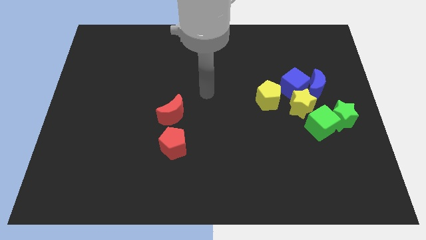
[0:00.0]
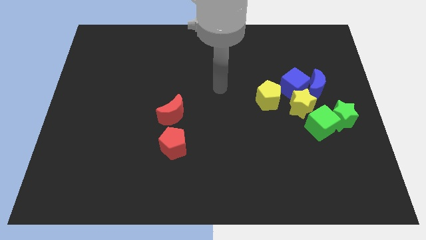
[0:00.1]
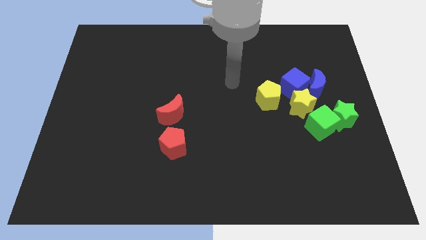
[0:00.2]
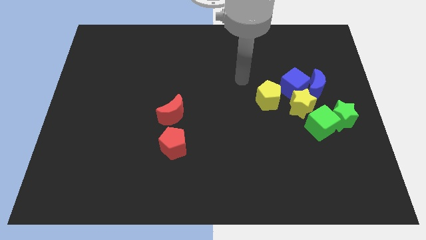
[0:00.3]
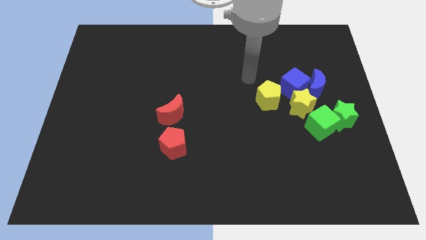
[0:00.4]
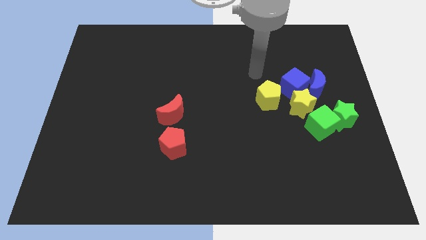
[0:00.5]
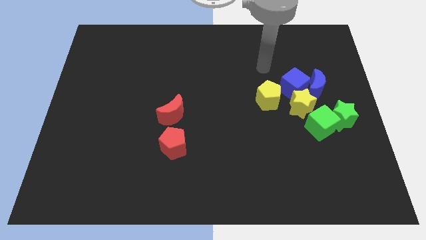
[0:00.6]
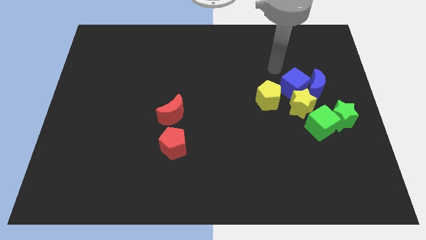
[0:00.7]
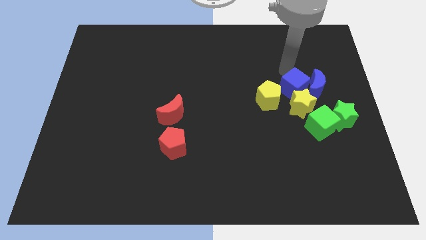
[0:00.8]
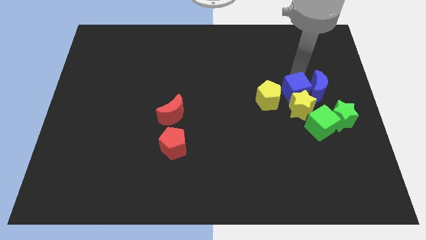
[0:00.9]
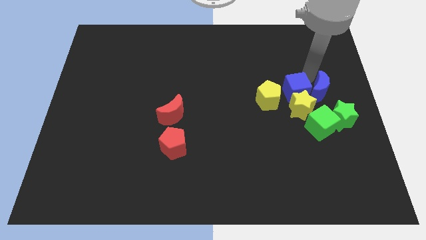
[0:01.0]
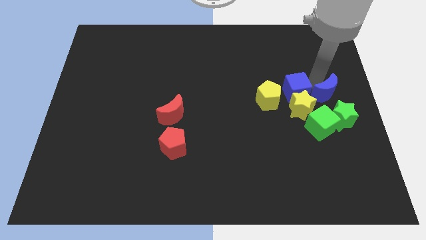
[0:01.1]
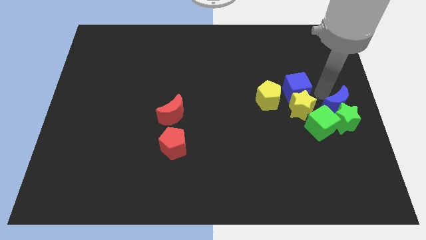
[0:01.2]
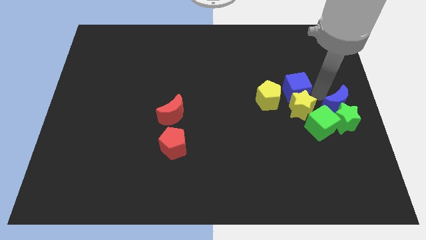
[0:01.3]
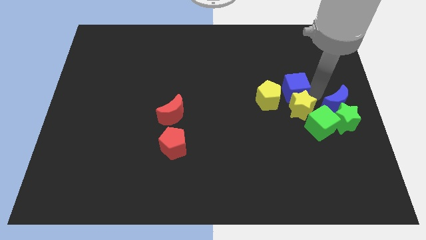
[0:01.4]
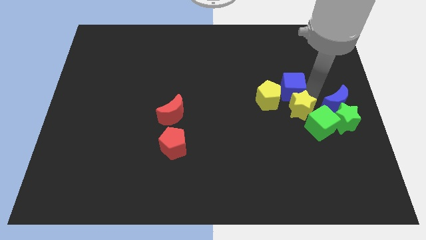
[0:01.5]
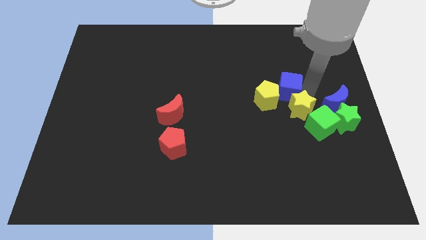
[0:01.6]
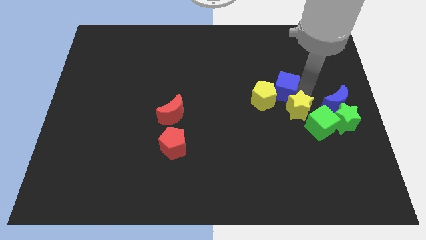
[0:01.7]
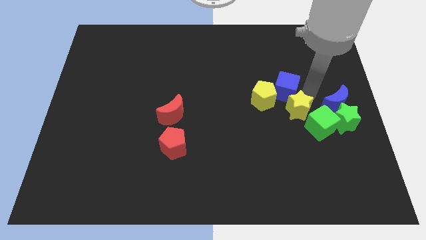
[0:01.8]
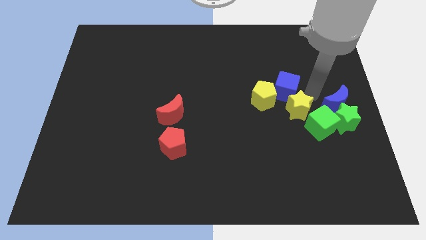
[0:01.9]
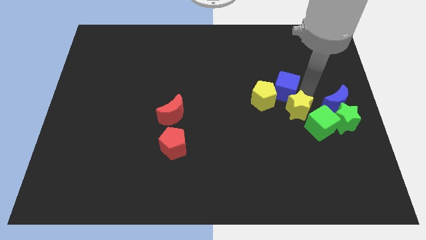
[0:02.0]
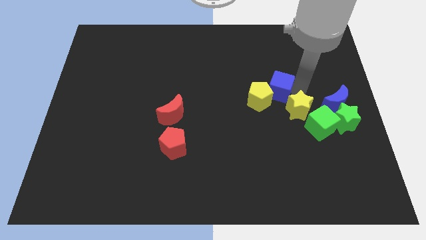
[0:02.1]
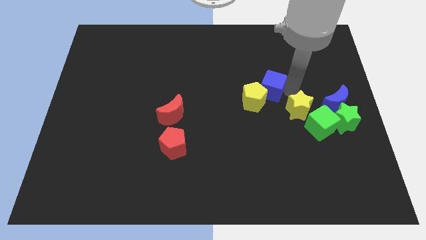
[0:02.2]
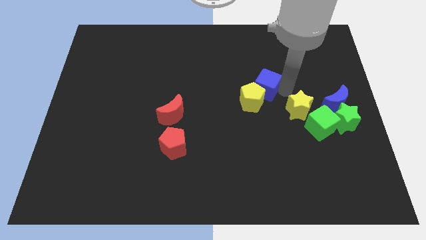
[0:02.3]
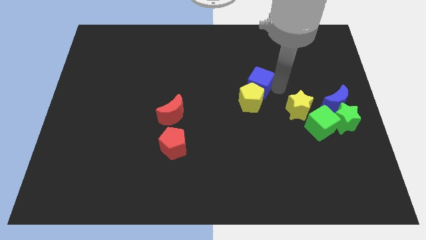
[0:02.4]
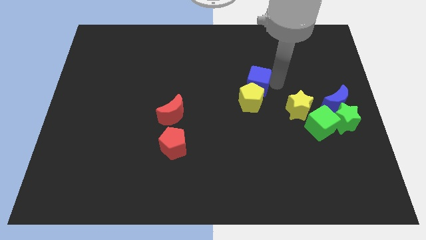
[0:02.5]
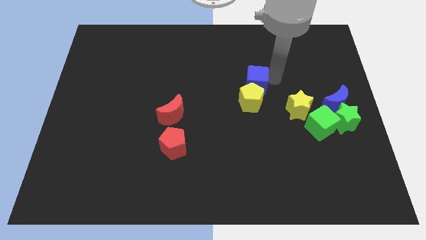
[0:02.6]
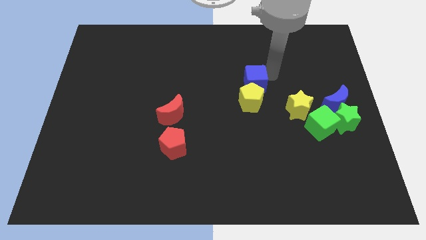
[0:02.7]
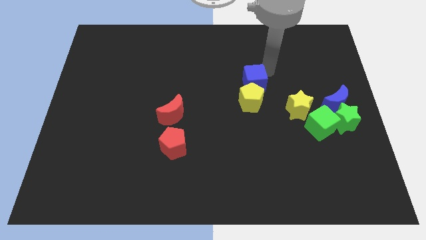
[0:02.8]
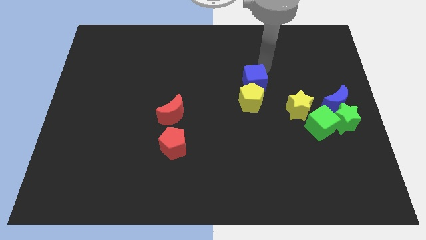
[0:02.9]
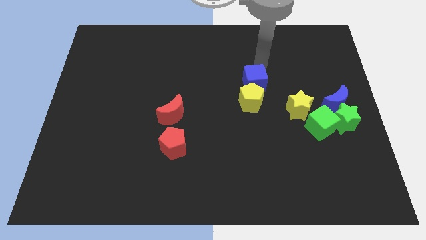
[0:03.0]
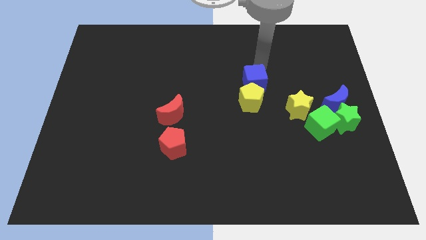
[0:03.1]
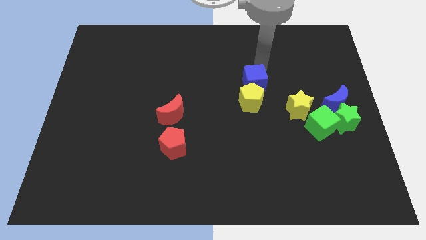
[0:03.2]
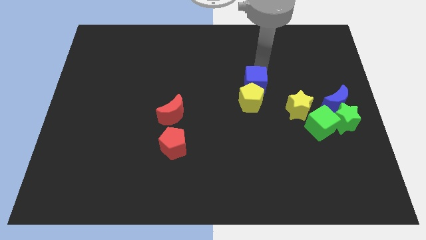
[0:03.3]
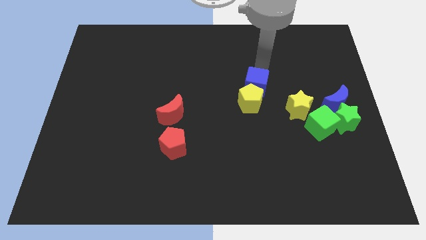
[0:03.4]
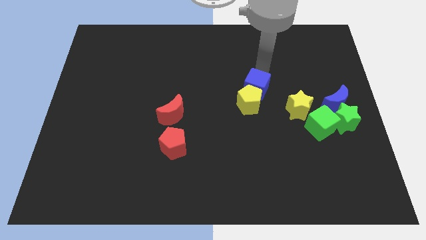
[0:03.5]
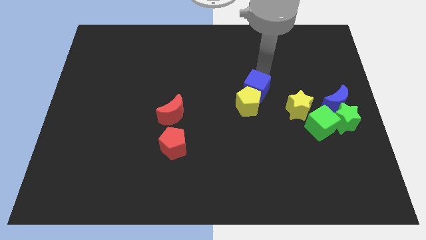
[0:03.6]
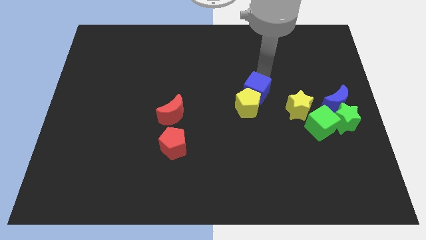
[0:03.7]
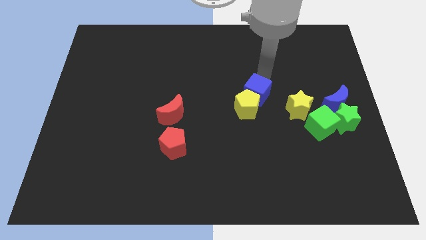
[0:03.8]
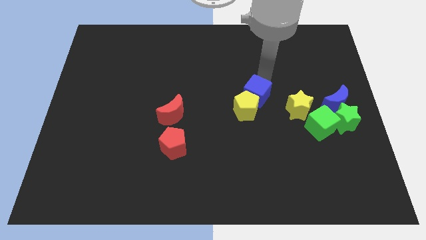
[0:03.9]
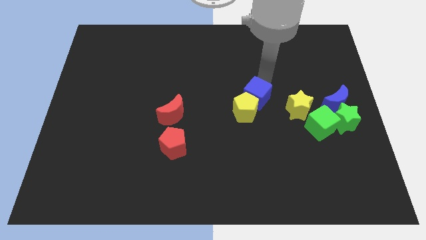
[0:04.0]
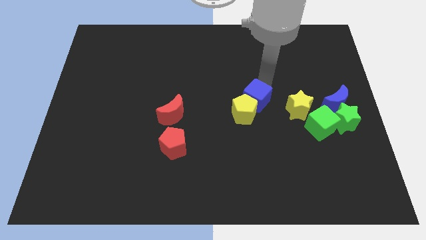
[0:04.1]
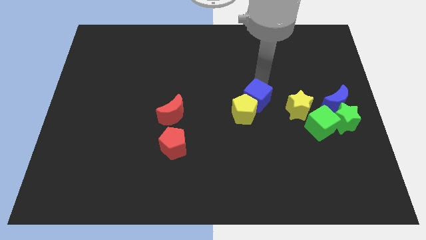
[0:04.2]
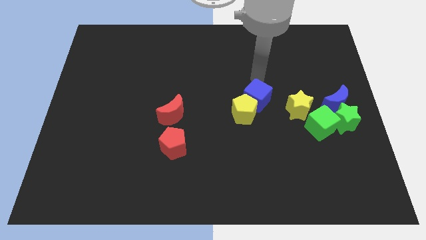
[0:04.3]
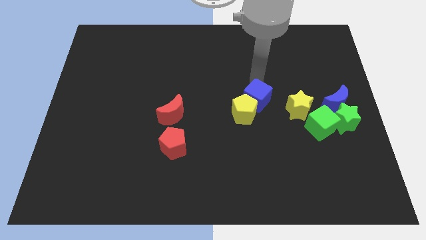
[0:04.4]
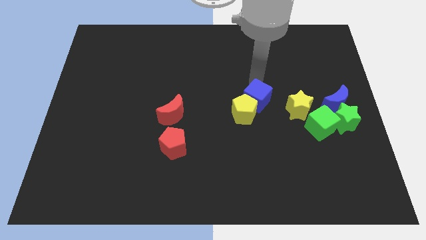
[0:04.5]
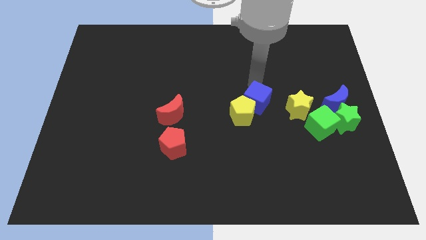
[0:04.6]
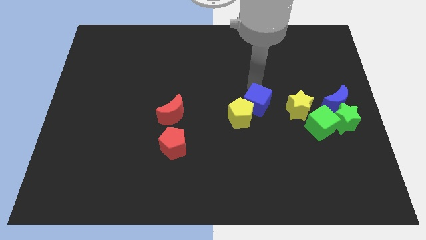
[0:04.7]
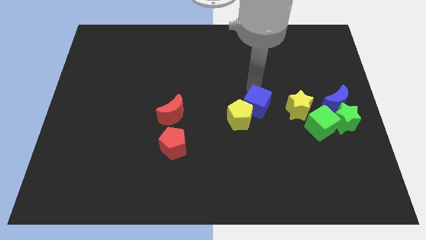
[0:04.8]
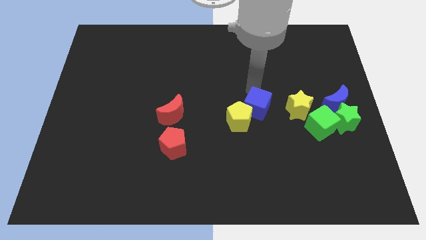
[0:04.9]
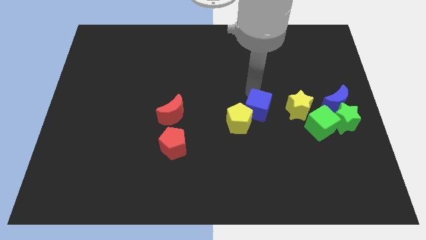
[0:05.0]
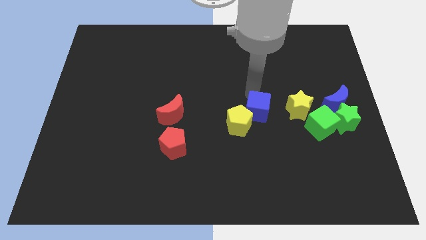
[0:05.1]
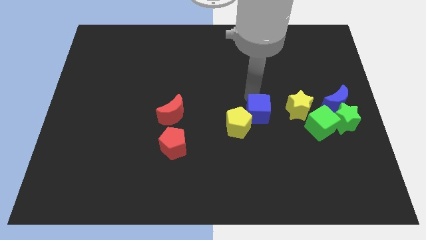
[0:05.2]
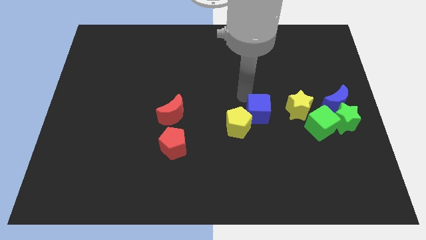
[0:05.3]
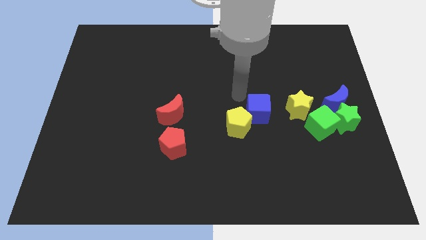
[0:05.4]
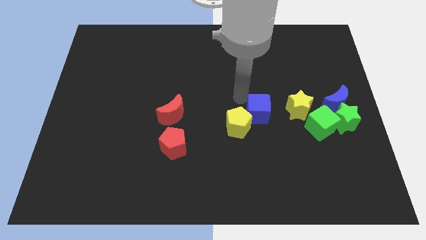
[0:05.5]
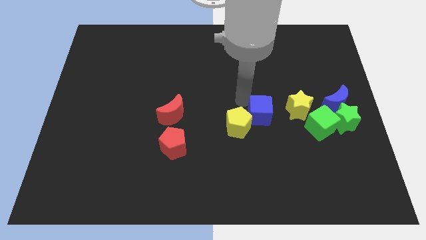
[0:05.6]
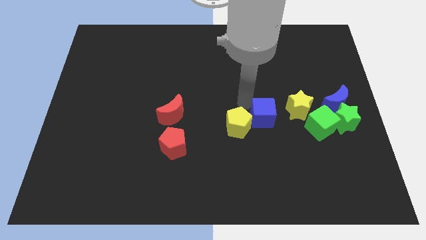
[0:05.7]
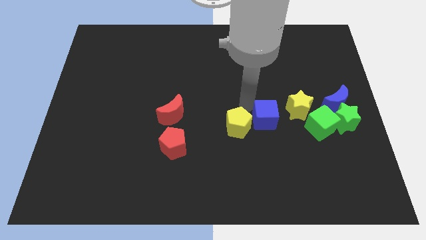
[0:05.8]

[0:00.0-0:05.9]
move the blue cube downwards a bit

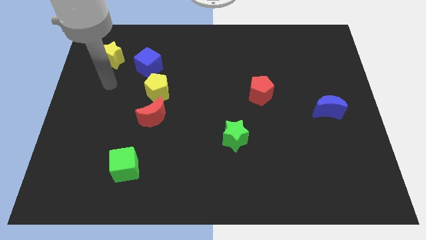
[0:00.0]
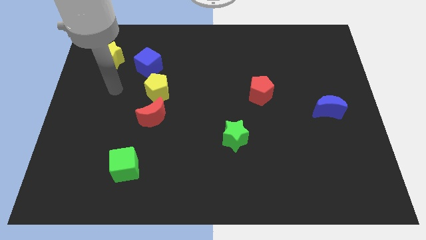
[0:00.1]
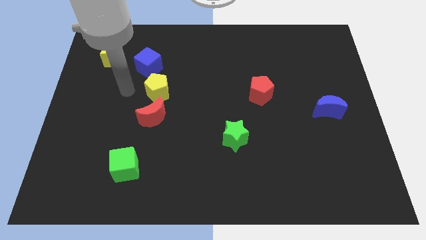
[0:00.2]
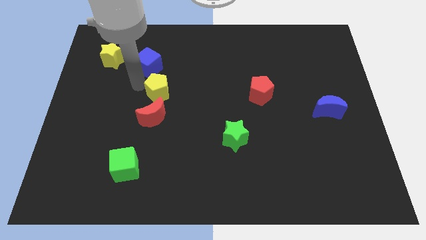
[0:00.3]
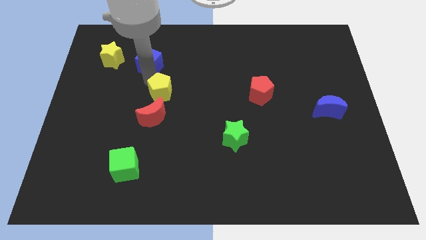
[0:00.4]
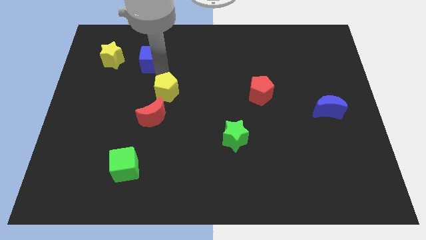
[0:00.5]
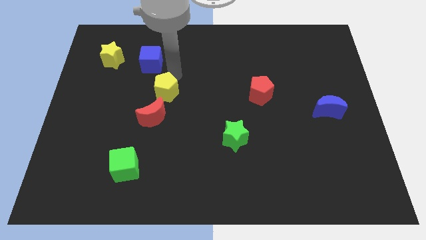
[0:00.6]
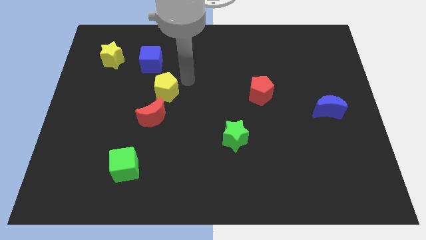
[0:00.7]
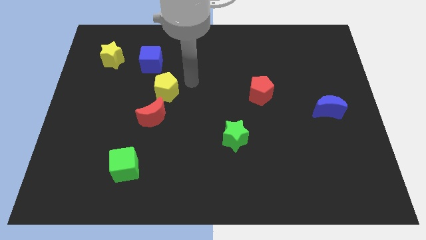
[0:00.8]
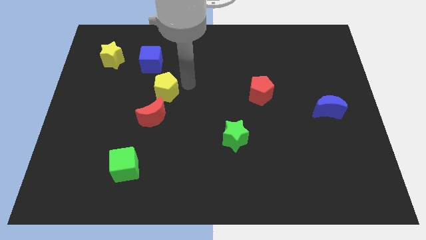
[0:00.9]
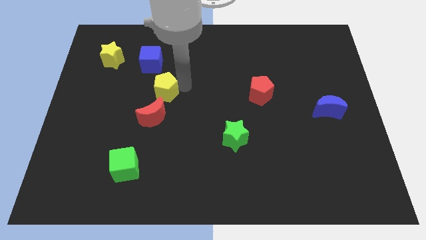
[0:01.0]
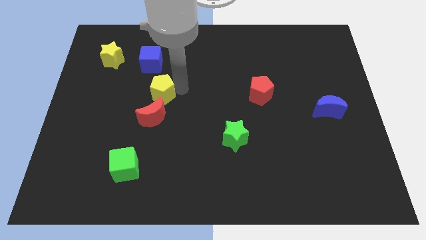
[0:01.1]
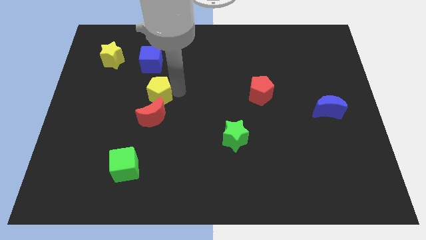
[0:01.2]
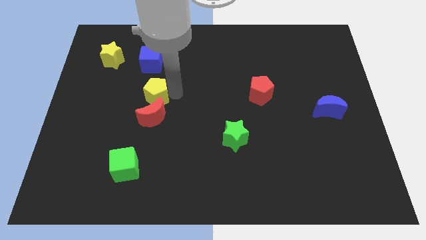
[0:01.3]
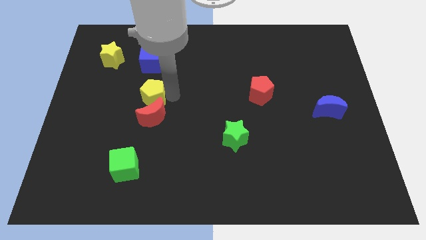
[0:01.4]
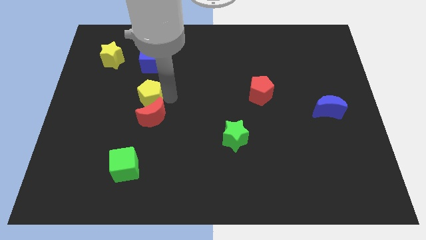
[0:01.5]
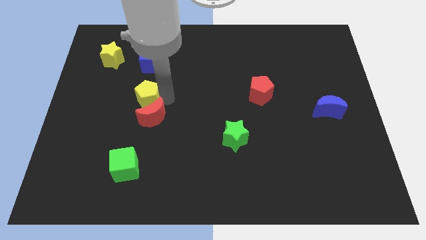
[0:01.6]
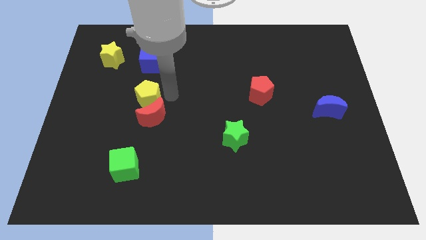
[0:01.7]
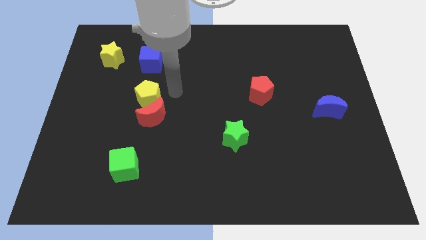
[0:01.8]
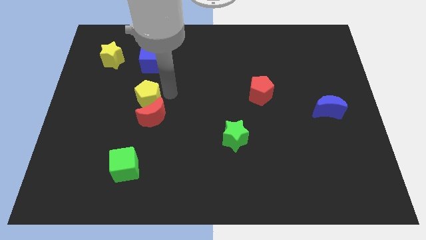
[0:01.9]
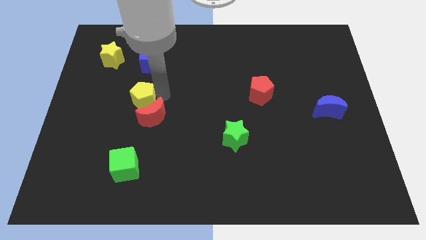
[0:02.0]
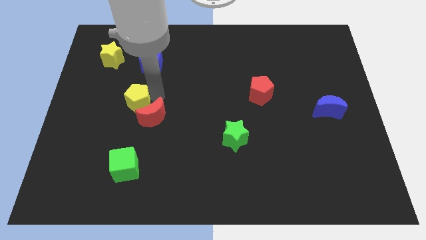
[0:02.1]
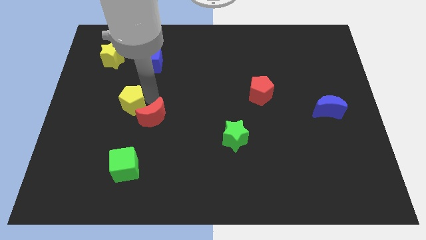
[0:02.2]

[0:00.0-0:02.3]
move the yellow pentagon a little bit down and to the left
